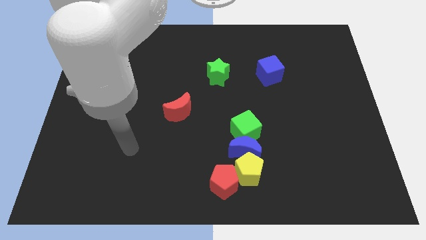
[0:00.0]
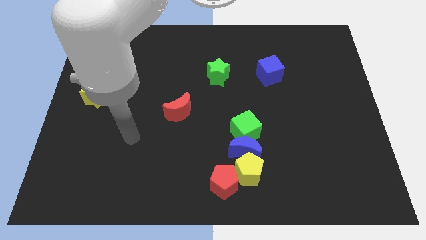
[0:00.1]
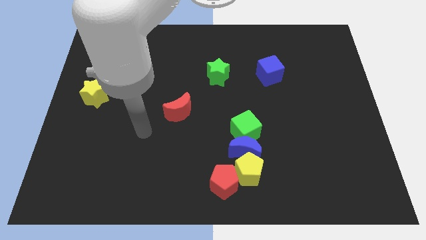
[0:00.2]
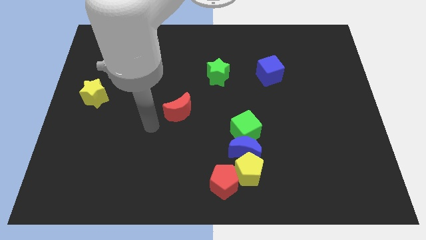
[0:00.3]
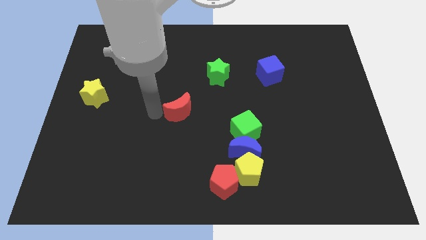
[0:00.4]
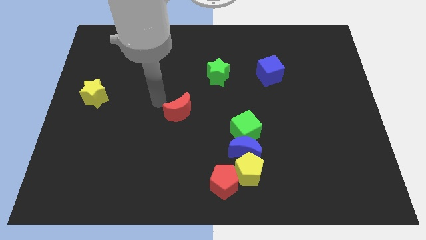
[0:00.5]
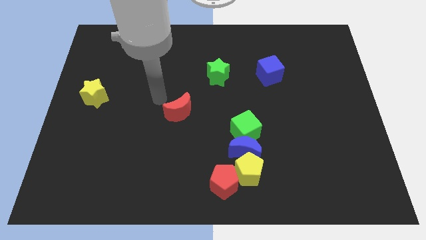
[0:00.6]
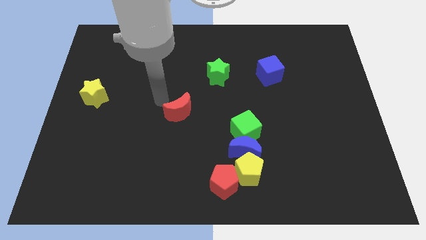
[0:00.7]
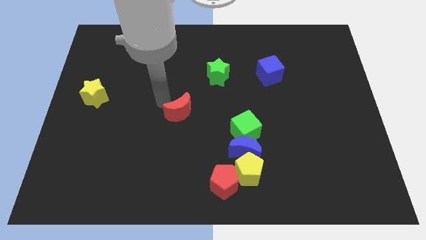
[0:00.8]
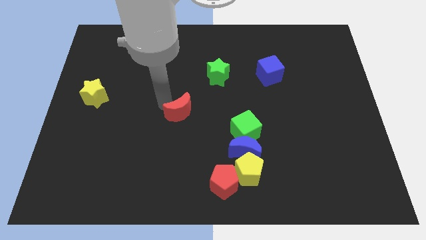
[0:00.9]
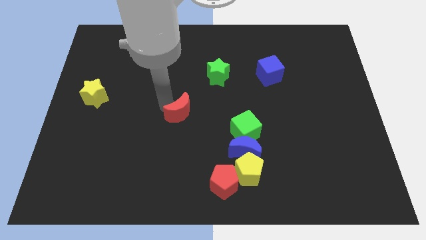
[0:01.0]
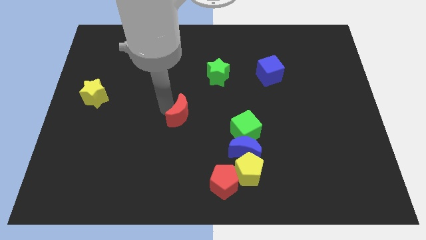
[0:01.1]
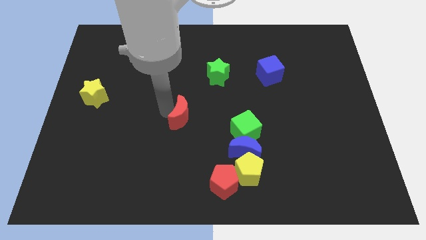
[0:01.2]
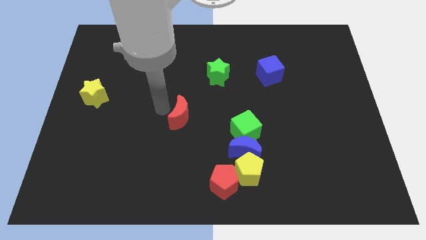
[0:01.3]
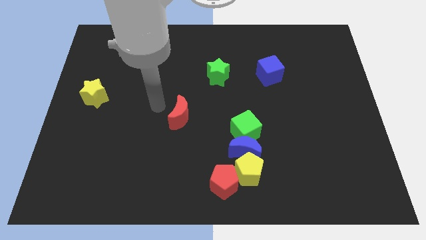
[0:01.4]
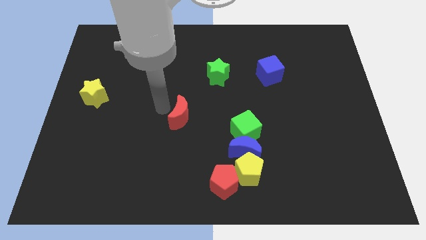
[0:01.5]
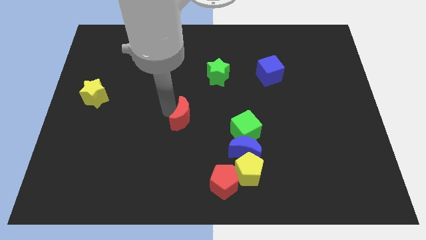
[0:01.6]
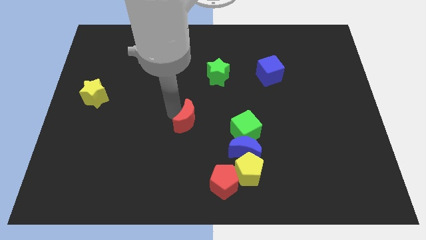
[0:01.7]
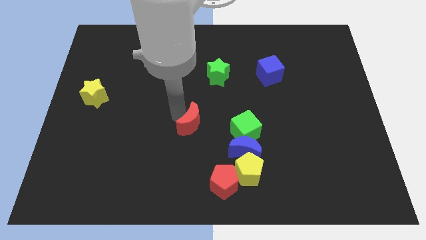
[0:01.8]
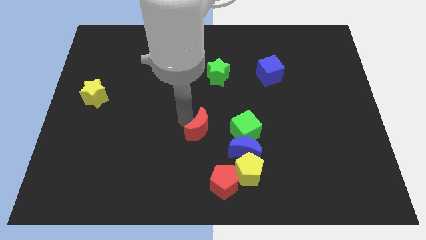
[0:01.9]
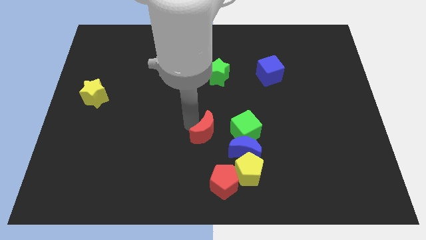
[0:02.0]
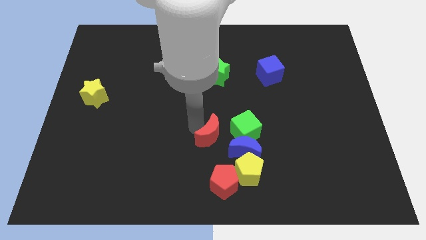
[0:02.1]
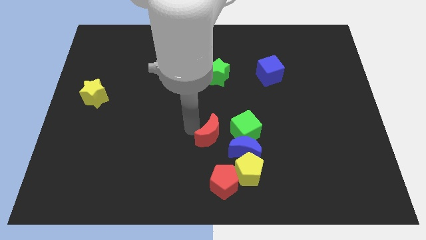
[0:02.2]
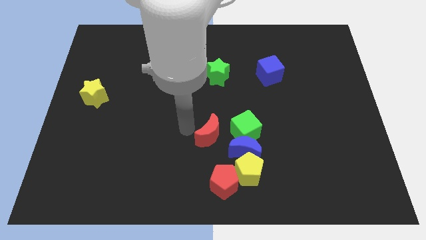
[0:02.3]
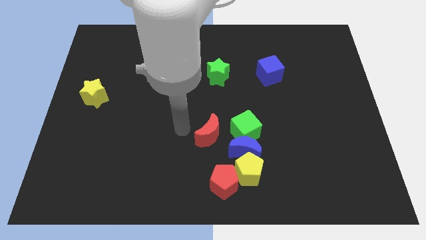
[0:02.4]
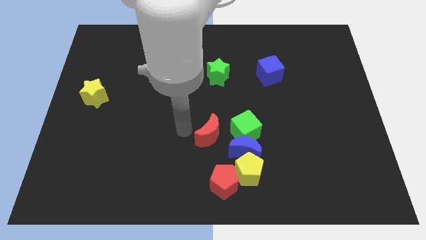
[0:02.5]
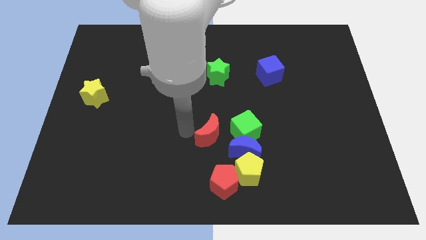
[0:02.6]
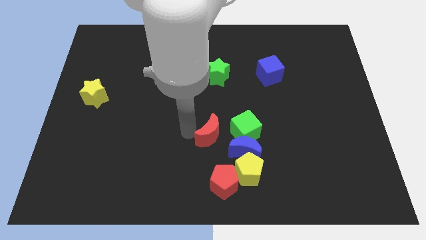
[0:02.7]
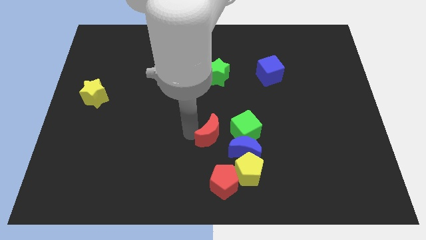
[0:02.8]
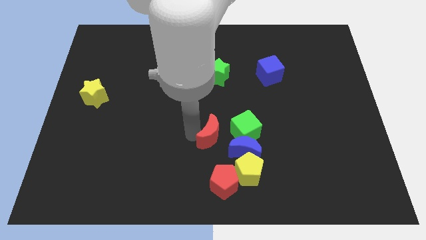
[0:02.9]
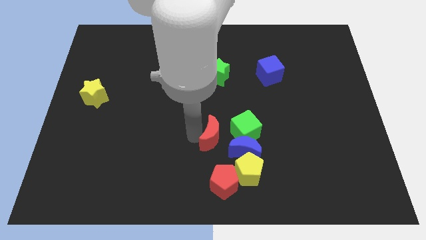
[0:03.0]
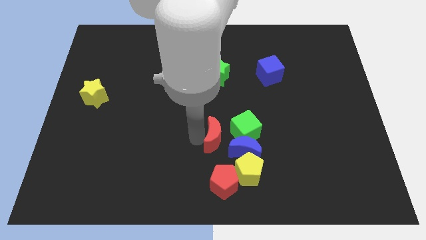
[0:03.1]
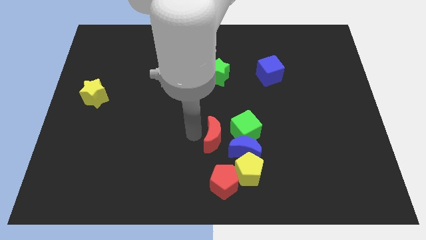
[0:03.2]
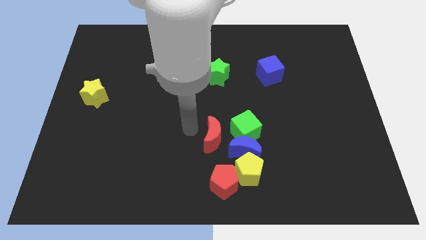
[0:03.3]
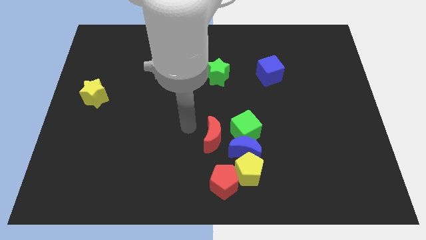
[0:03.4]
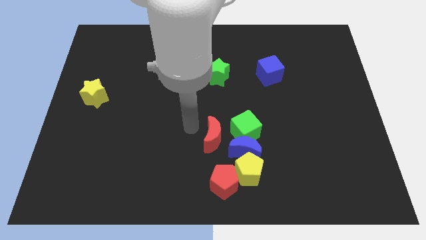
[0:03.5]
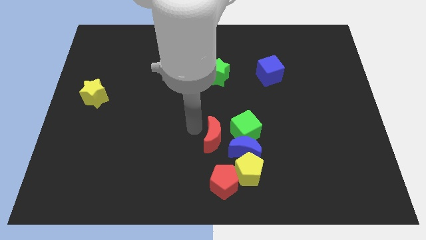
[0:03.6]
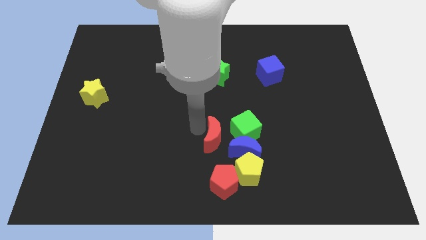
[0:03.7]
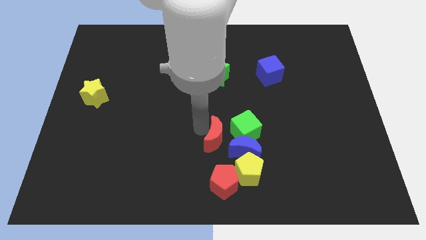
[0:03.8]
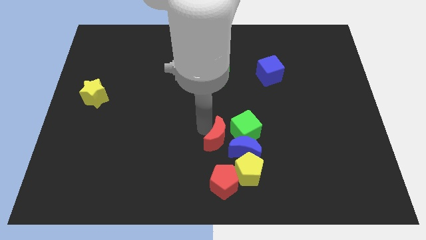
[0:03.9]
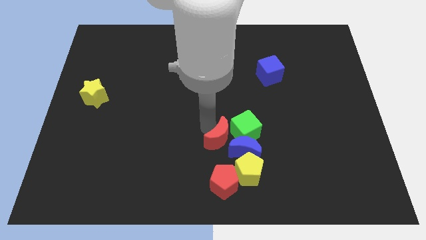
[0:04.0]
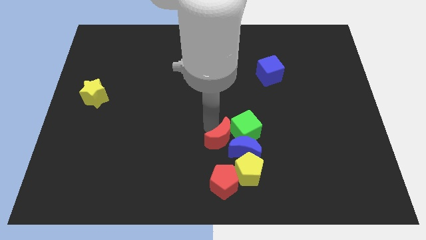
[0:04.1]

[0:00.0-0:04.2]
put the red moon next to the blue moon

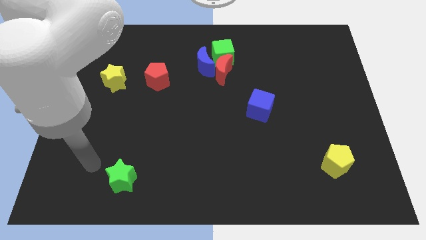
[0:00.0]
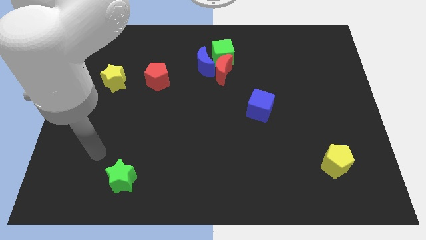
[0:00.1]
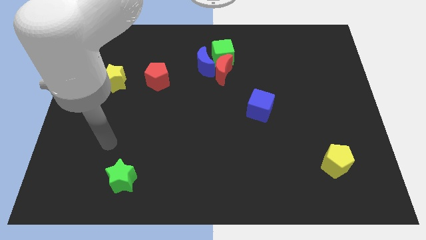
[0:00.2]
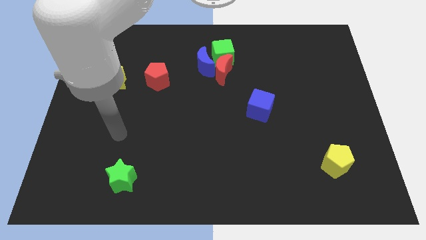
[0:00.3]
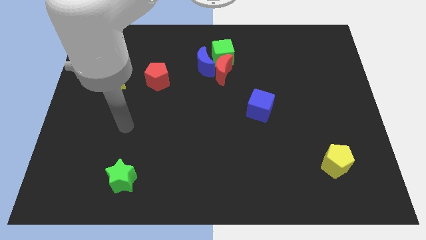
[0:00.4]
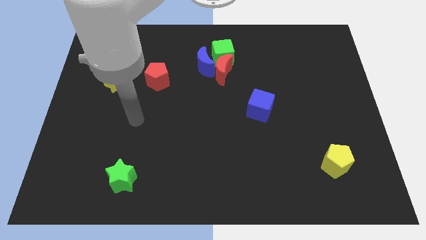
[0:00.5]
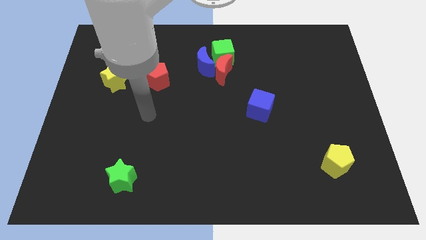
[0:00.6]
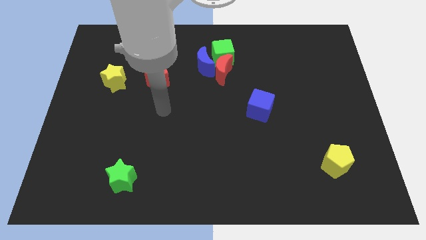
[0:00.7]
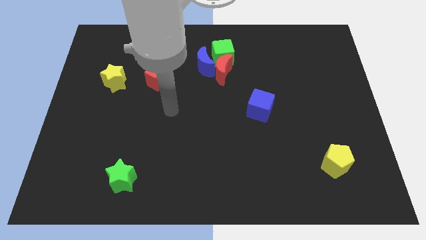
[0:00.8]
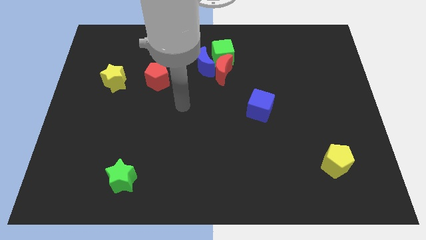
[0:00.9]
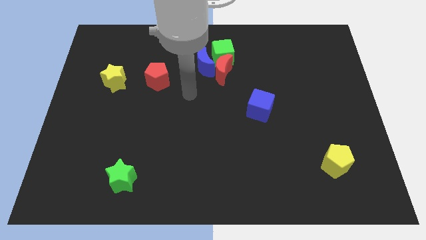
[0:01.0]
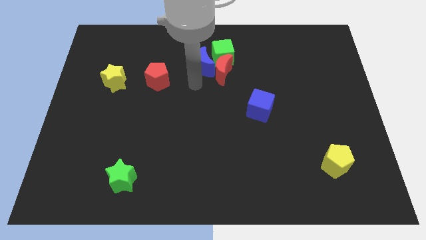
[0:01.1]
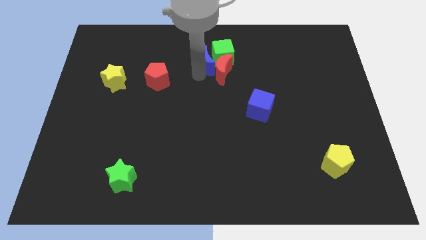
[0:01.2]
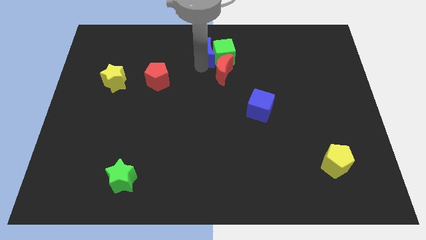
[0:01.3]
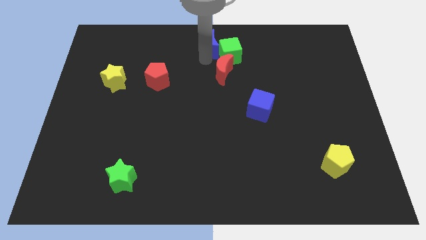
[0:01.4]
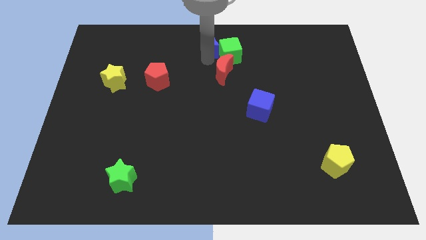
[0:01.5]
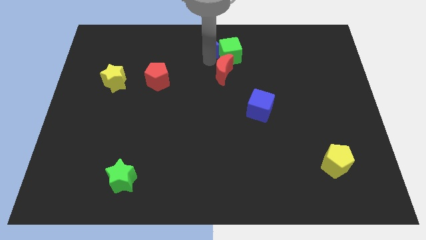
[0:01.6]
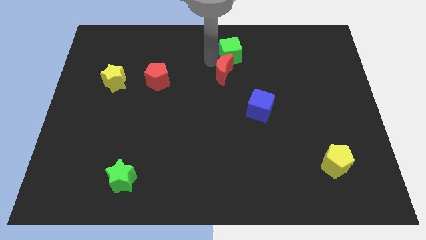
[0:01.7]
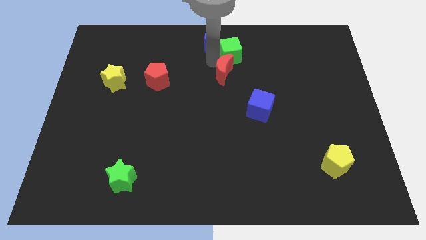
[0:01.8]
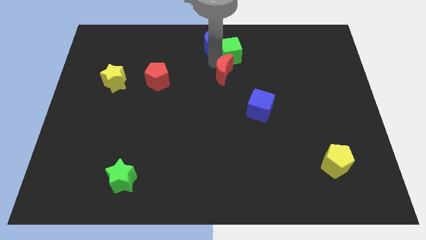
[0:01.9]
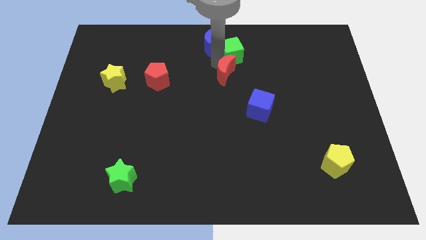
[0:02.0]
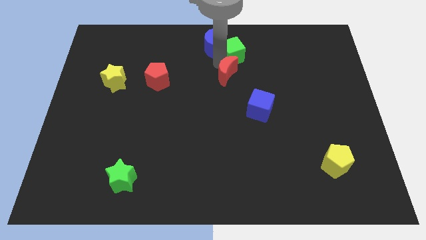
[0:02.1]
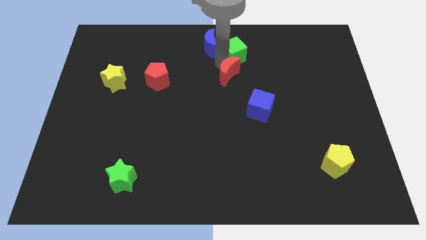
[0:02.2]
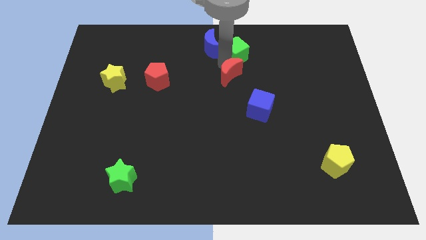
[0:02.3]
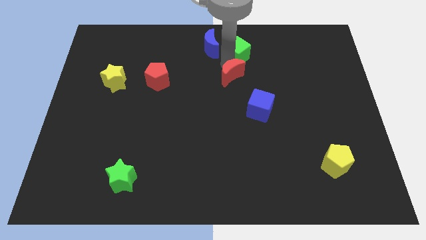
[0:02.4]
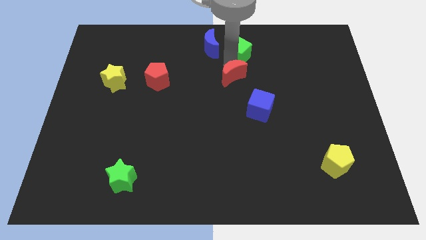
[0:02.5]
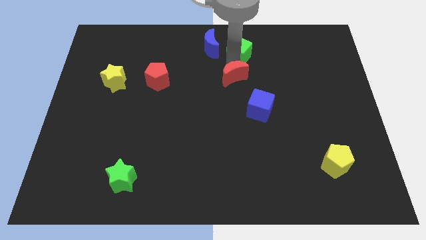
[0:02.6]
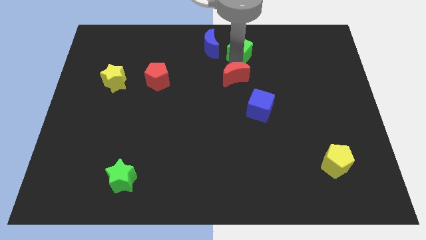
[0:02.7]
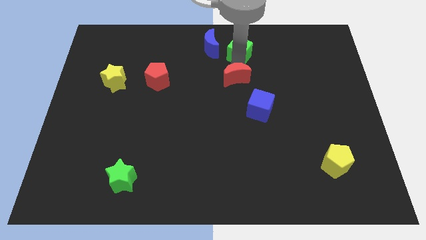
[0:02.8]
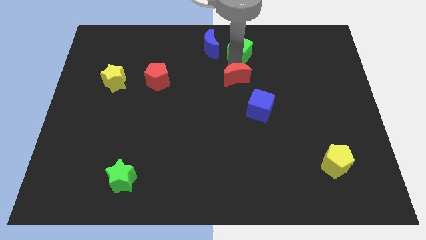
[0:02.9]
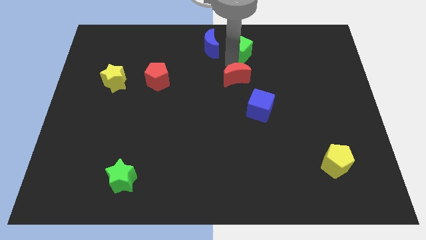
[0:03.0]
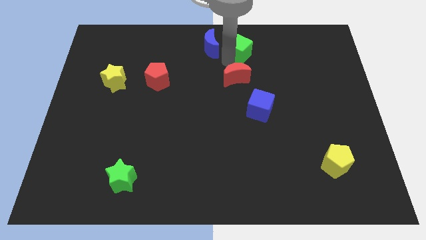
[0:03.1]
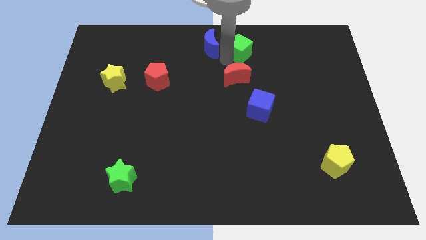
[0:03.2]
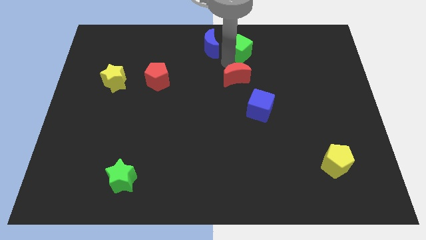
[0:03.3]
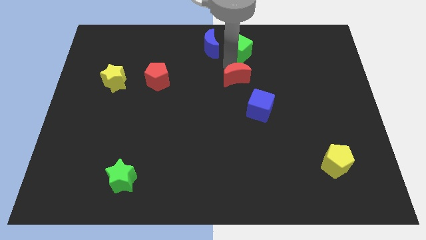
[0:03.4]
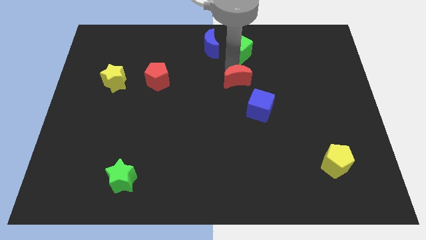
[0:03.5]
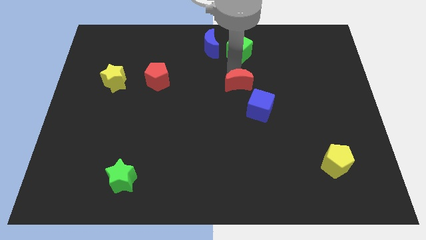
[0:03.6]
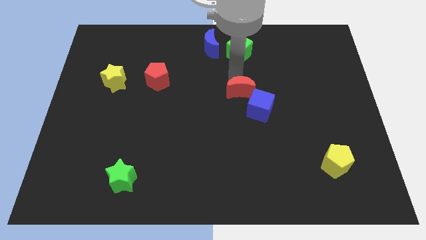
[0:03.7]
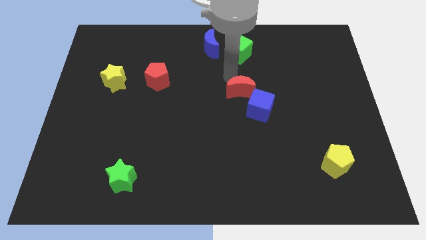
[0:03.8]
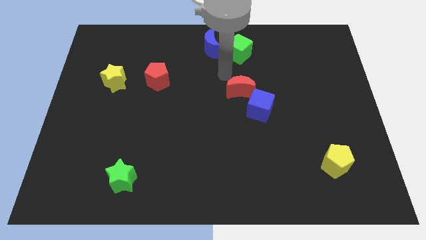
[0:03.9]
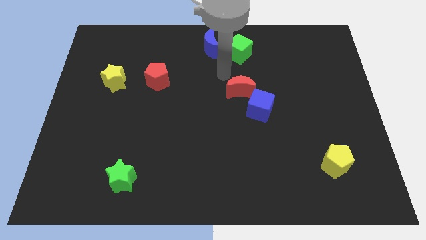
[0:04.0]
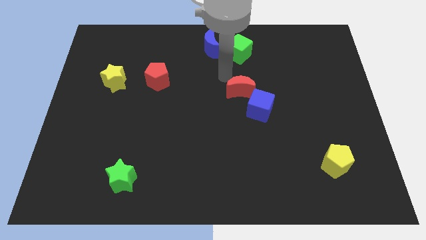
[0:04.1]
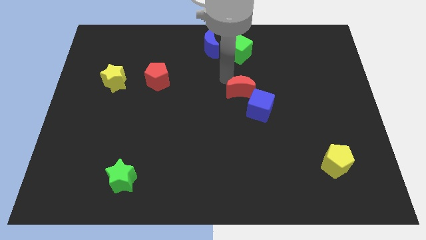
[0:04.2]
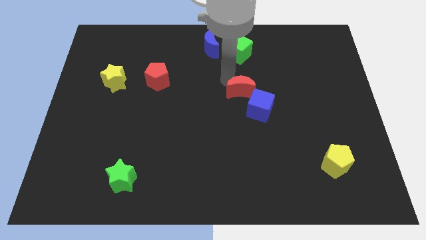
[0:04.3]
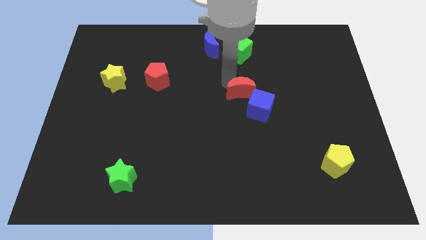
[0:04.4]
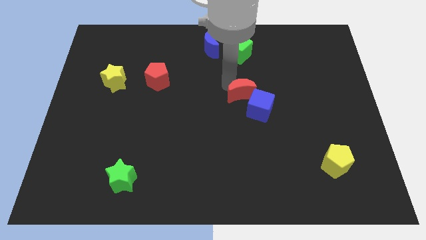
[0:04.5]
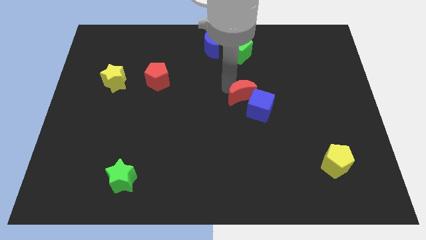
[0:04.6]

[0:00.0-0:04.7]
push the red moon towards the blue cube
